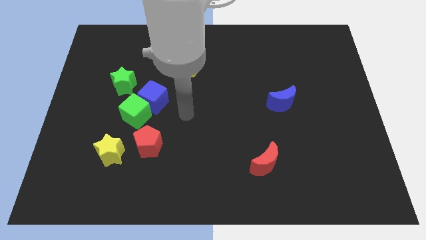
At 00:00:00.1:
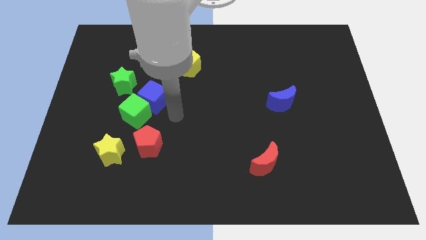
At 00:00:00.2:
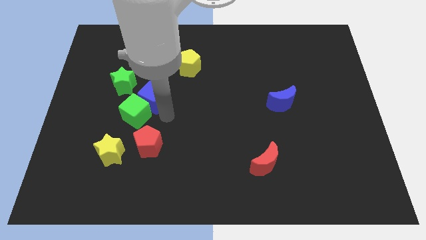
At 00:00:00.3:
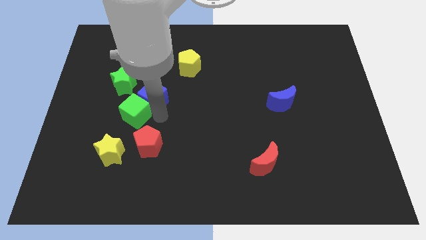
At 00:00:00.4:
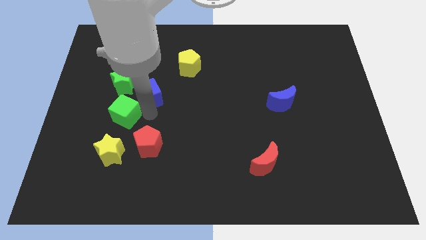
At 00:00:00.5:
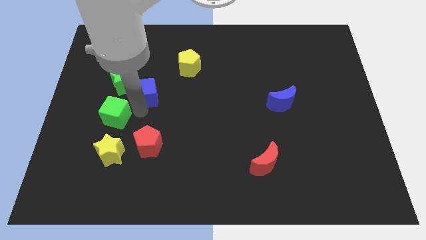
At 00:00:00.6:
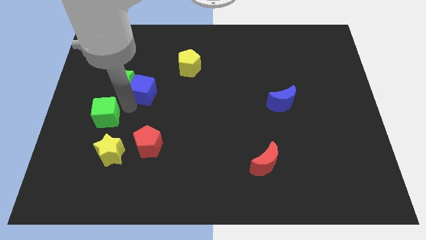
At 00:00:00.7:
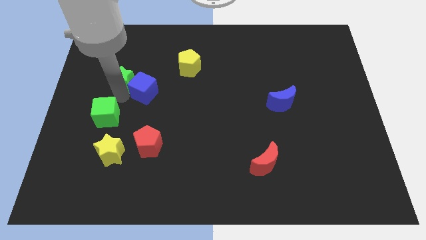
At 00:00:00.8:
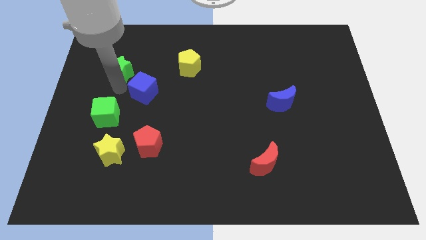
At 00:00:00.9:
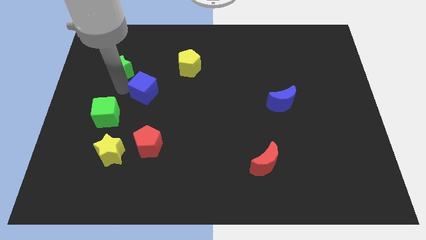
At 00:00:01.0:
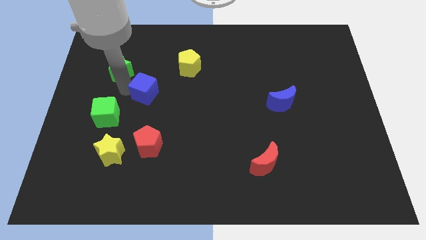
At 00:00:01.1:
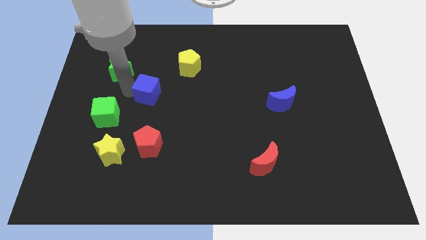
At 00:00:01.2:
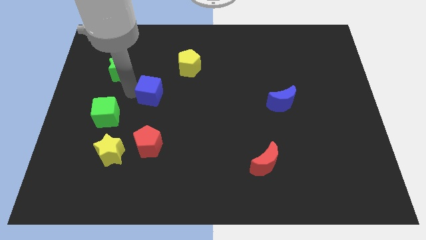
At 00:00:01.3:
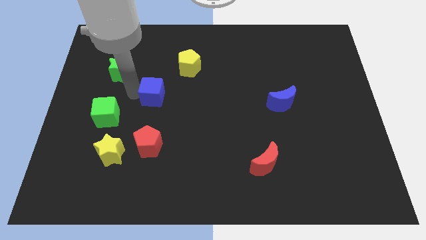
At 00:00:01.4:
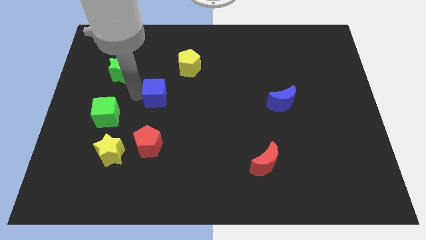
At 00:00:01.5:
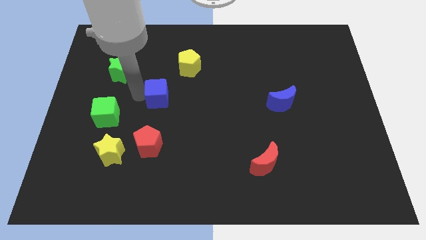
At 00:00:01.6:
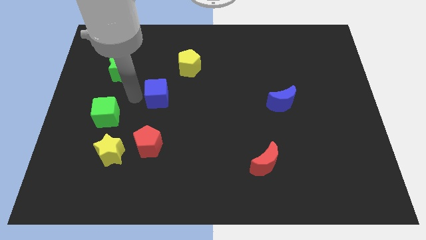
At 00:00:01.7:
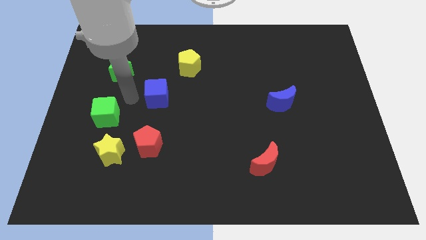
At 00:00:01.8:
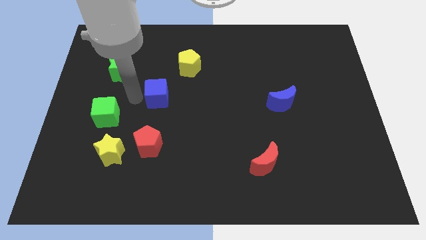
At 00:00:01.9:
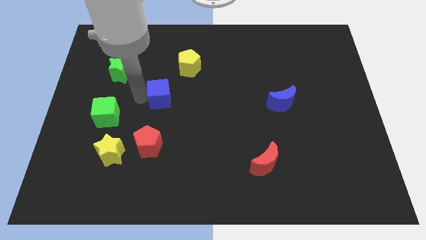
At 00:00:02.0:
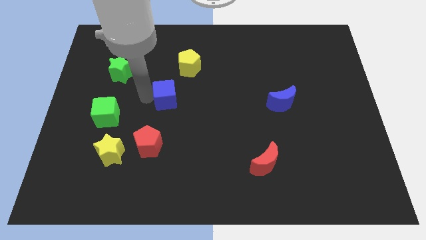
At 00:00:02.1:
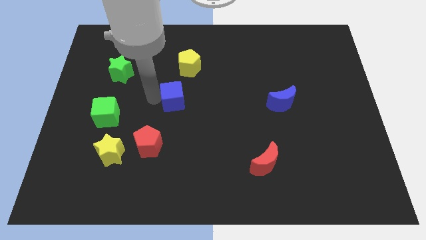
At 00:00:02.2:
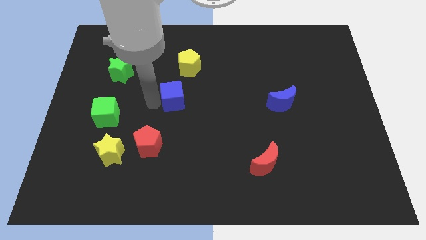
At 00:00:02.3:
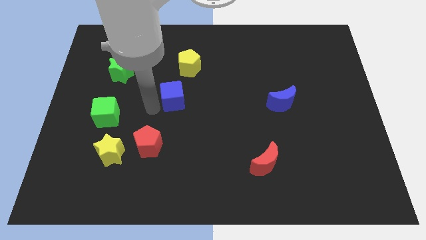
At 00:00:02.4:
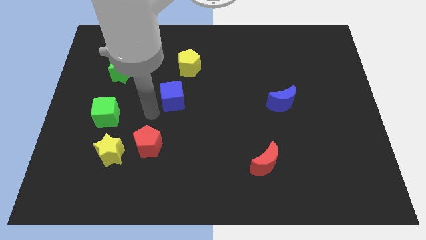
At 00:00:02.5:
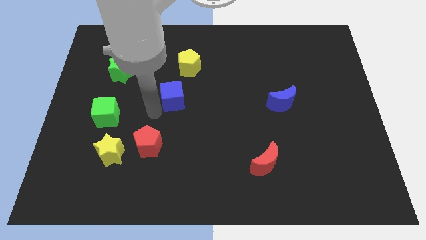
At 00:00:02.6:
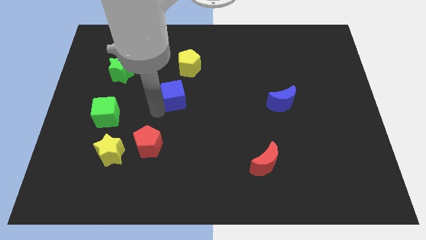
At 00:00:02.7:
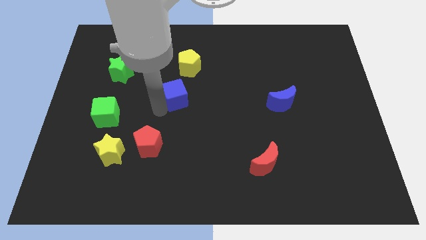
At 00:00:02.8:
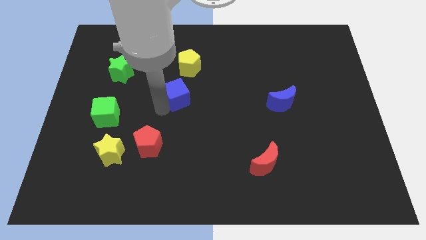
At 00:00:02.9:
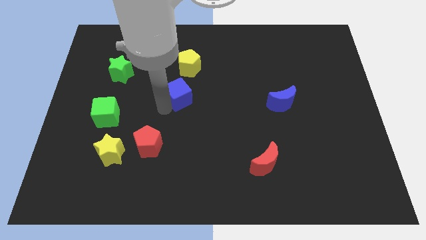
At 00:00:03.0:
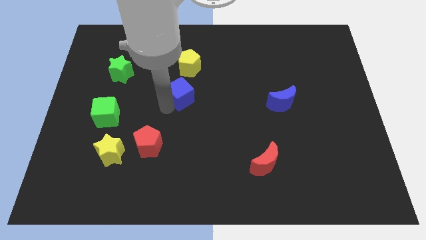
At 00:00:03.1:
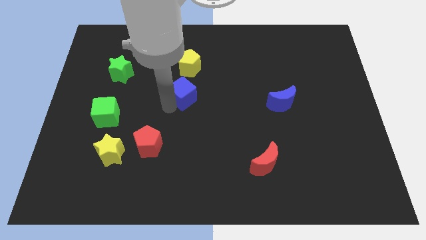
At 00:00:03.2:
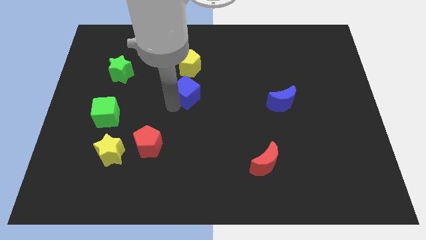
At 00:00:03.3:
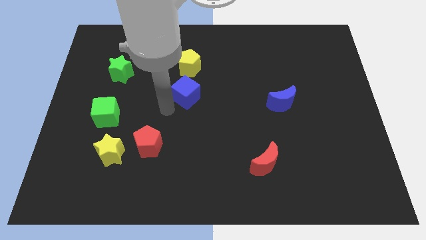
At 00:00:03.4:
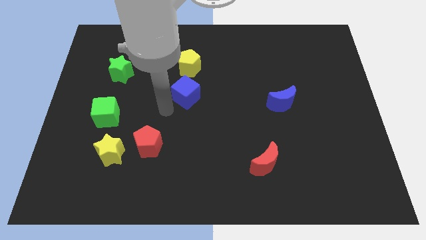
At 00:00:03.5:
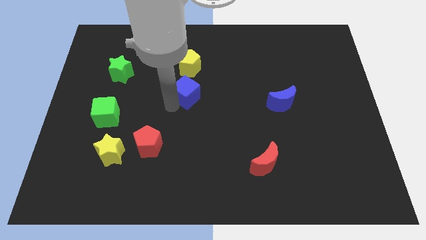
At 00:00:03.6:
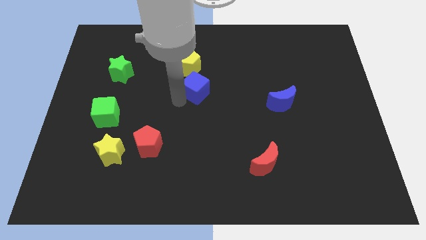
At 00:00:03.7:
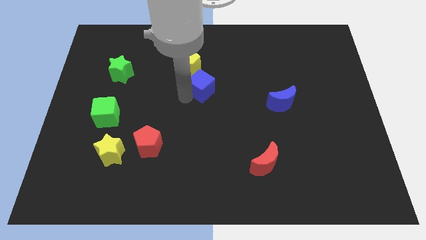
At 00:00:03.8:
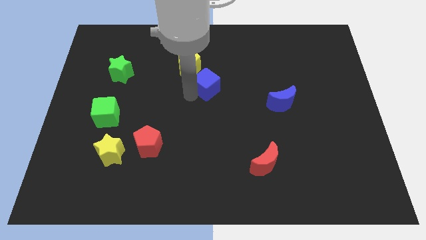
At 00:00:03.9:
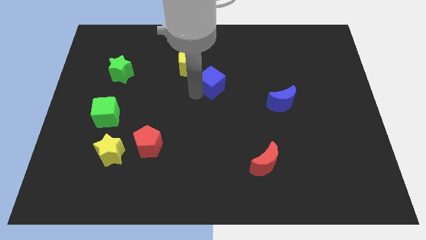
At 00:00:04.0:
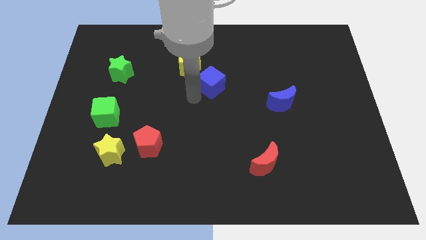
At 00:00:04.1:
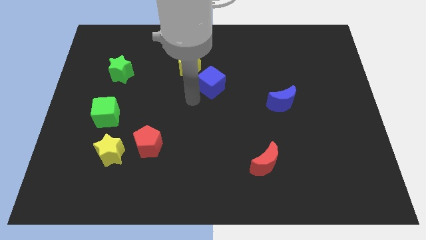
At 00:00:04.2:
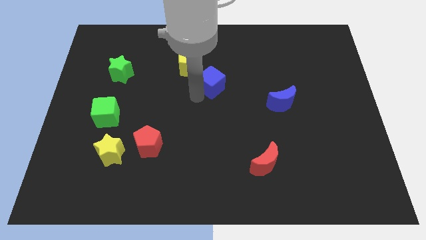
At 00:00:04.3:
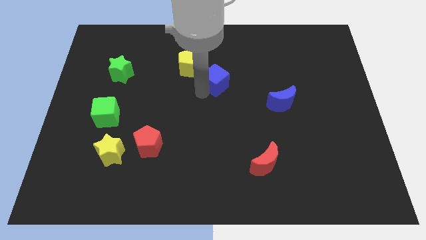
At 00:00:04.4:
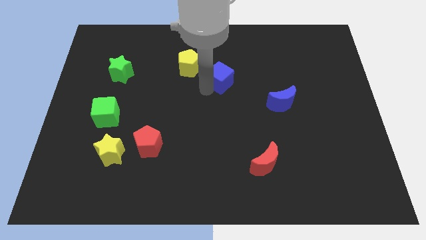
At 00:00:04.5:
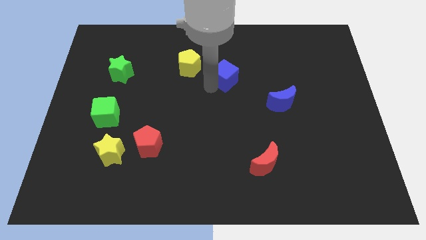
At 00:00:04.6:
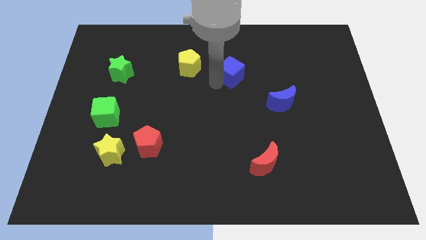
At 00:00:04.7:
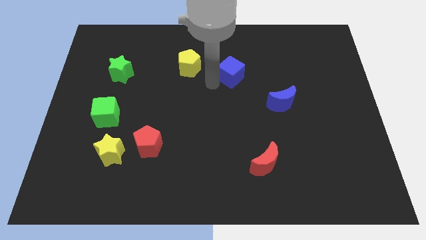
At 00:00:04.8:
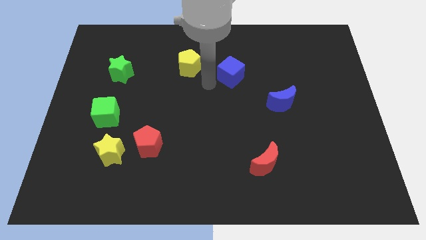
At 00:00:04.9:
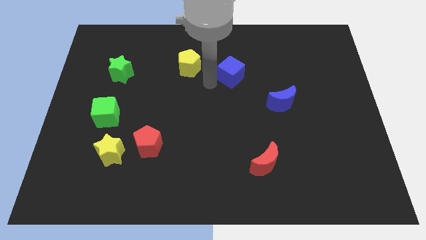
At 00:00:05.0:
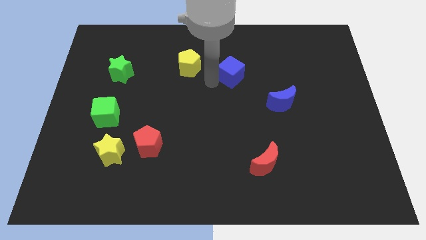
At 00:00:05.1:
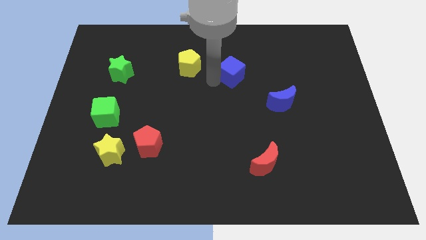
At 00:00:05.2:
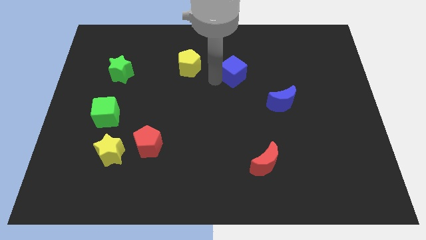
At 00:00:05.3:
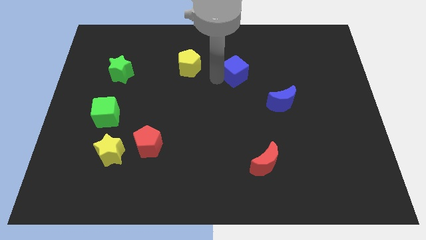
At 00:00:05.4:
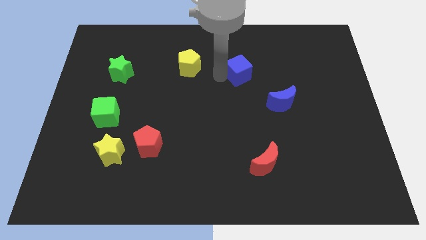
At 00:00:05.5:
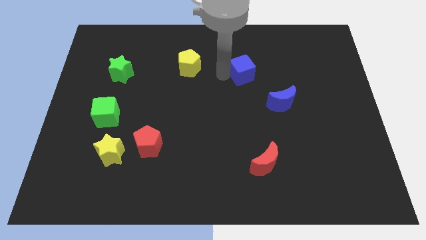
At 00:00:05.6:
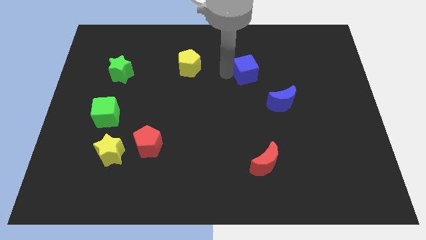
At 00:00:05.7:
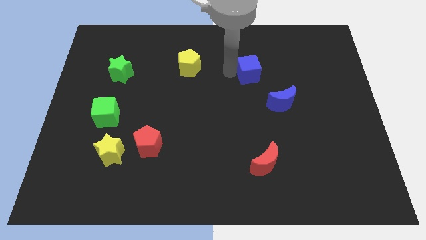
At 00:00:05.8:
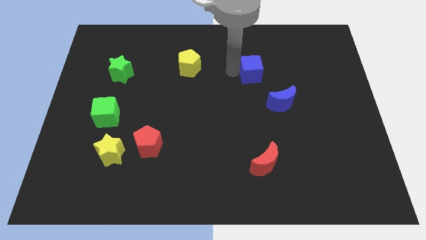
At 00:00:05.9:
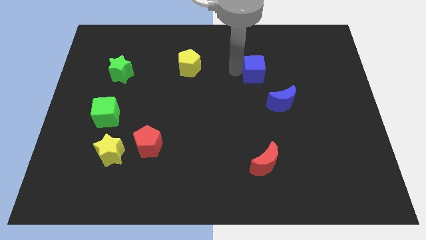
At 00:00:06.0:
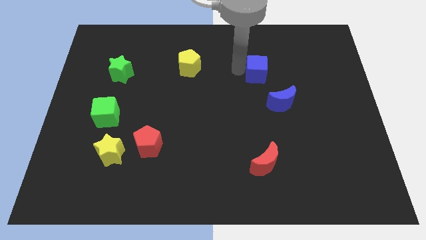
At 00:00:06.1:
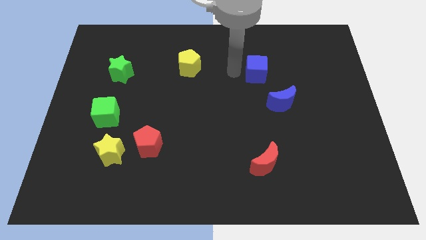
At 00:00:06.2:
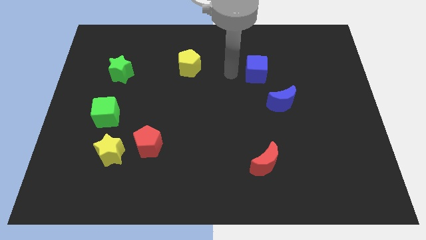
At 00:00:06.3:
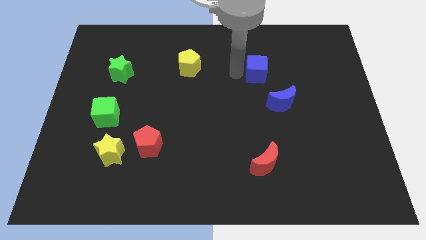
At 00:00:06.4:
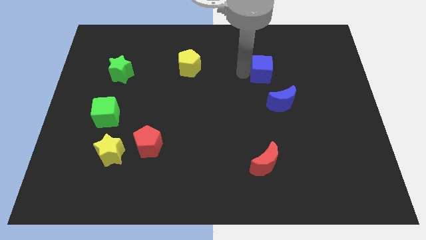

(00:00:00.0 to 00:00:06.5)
slide the blue cube above the blue moon

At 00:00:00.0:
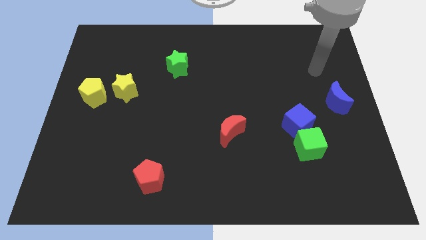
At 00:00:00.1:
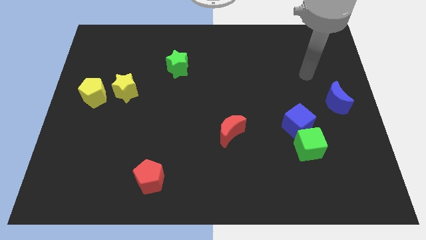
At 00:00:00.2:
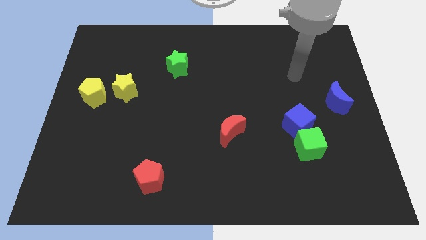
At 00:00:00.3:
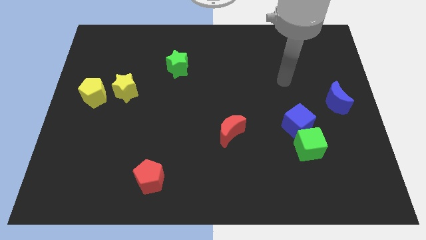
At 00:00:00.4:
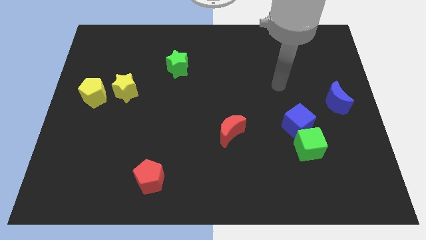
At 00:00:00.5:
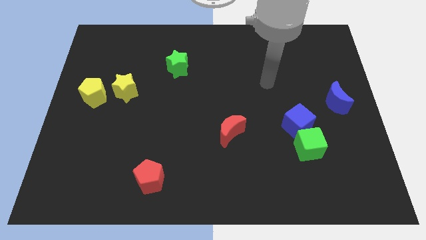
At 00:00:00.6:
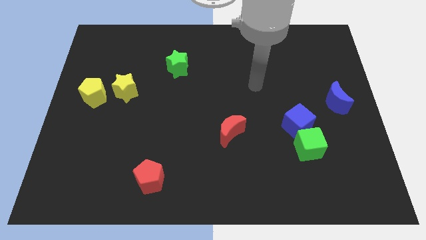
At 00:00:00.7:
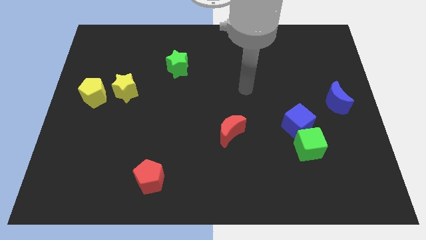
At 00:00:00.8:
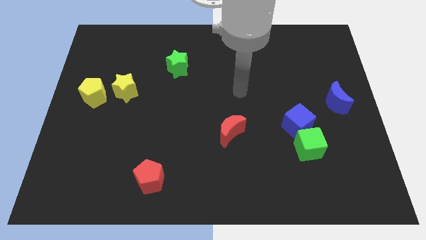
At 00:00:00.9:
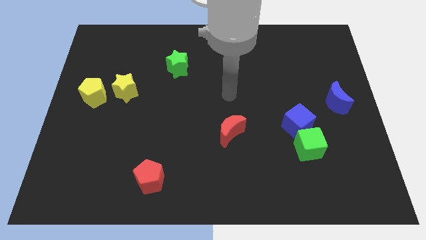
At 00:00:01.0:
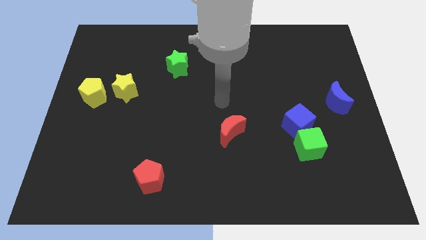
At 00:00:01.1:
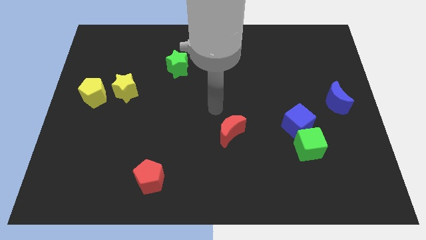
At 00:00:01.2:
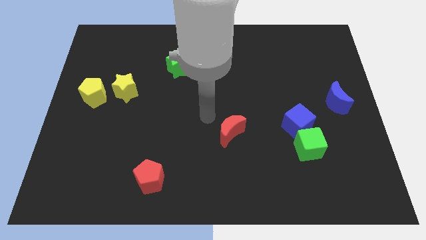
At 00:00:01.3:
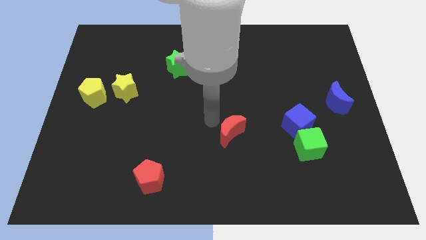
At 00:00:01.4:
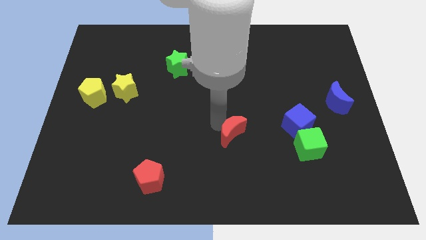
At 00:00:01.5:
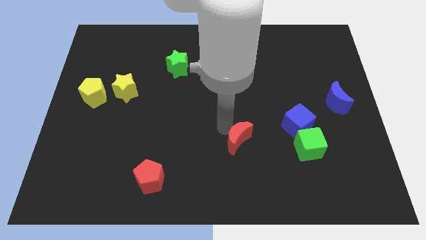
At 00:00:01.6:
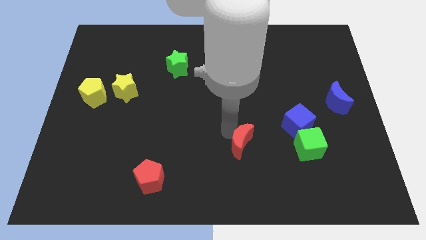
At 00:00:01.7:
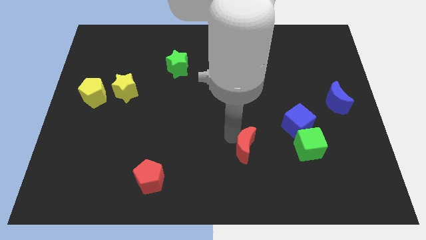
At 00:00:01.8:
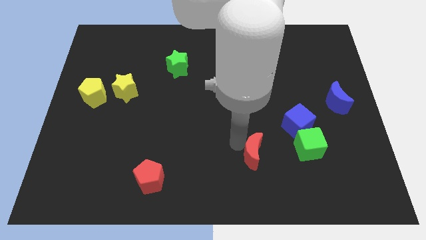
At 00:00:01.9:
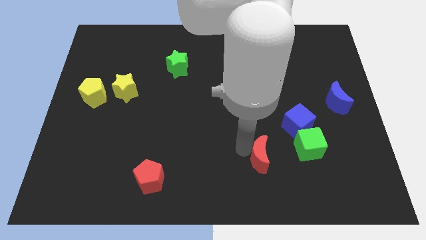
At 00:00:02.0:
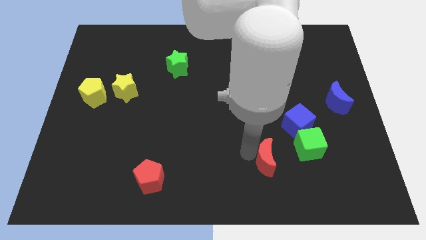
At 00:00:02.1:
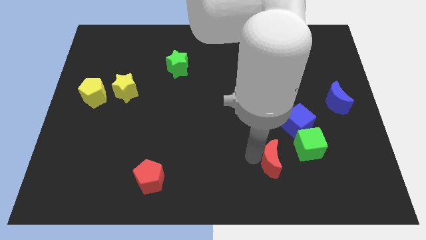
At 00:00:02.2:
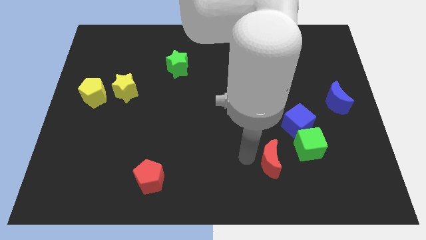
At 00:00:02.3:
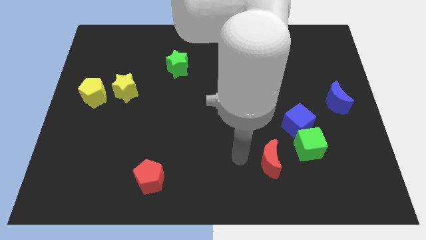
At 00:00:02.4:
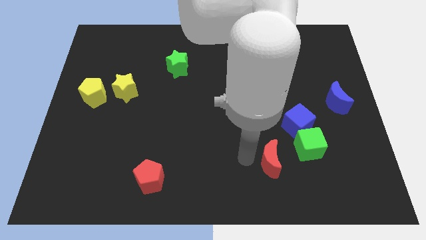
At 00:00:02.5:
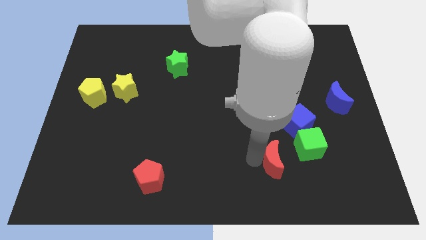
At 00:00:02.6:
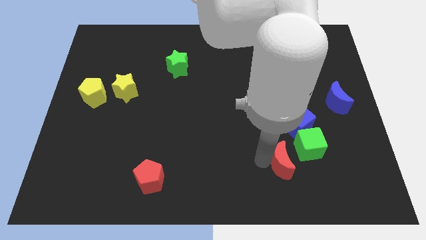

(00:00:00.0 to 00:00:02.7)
put the red moon below the blue cube
